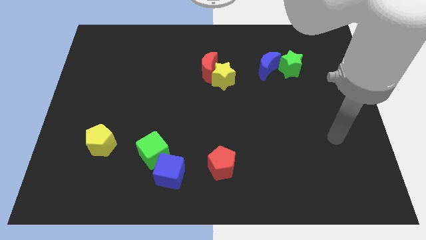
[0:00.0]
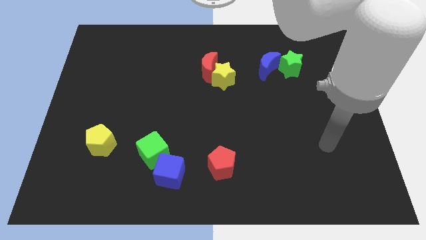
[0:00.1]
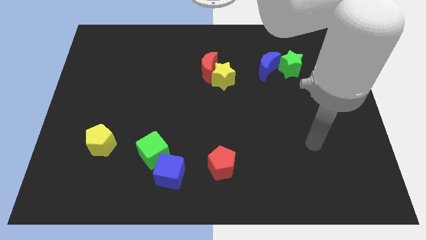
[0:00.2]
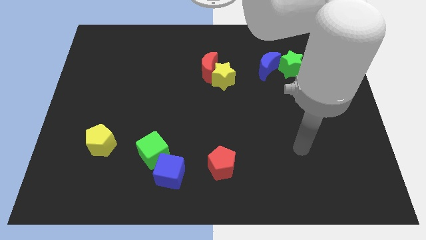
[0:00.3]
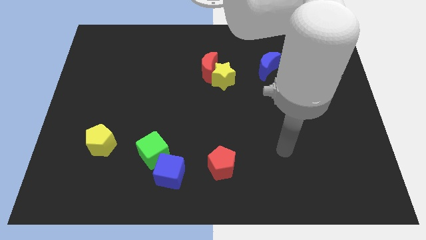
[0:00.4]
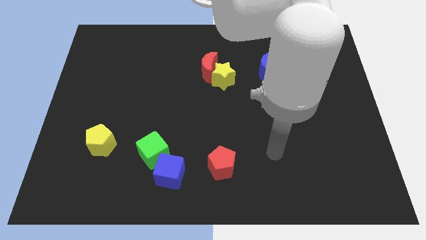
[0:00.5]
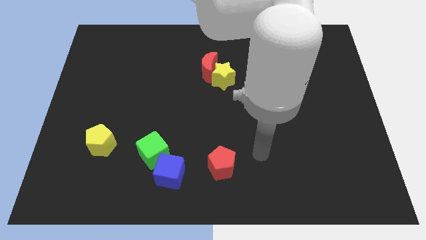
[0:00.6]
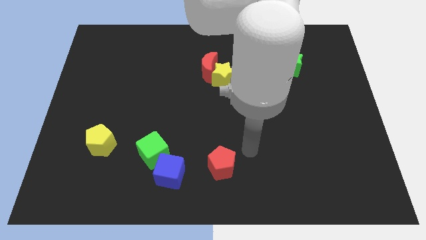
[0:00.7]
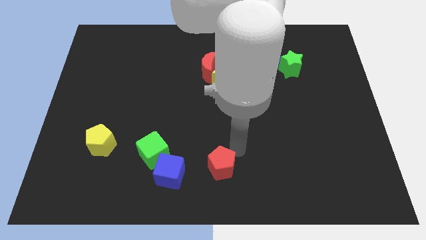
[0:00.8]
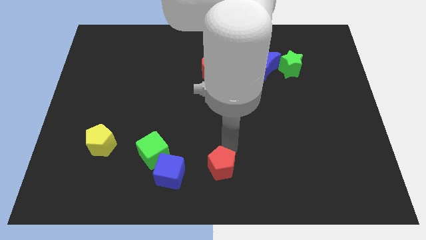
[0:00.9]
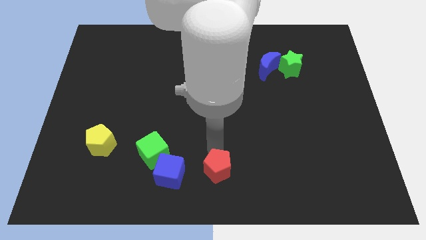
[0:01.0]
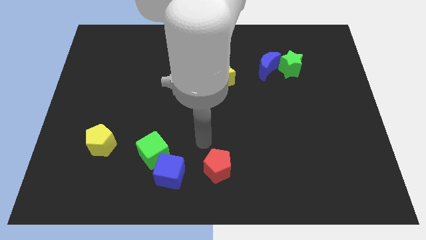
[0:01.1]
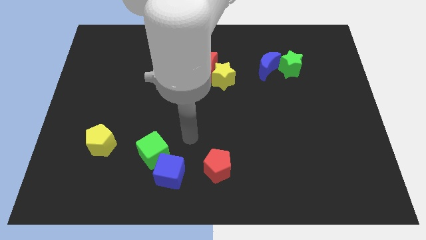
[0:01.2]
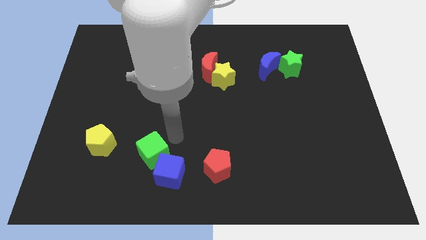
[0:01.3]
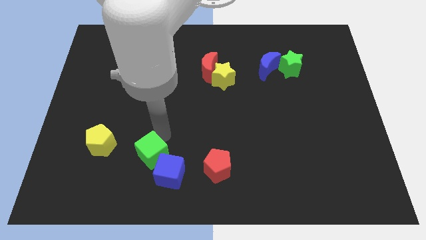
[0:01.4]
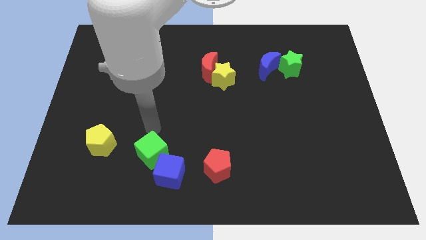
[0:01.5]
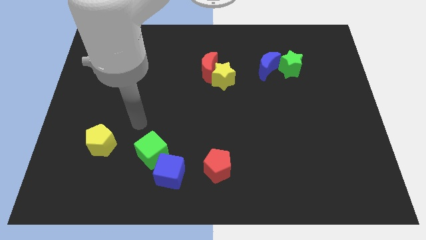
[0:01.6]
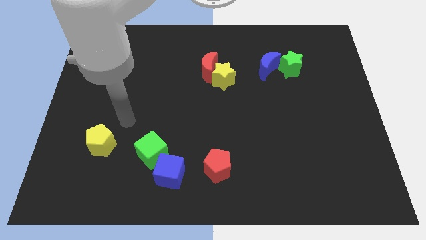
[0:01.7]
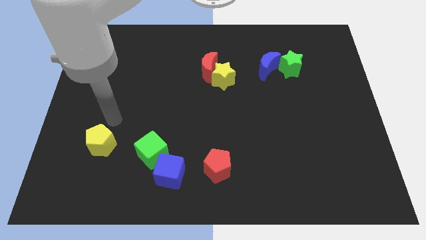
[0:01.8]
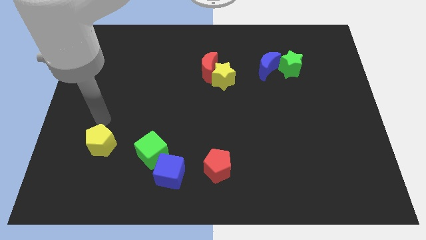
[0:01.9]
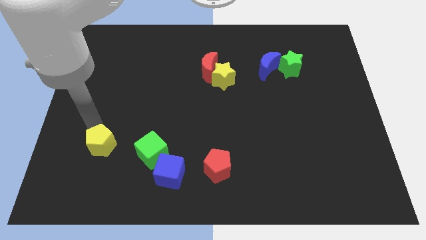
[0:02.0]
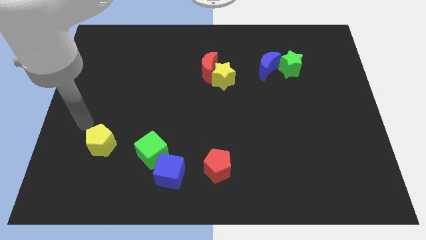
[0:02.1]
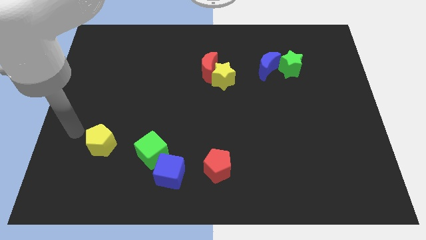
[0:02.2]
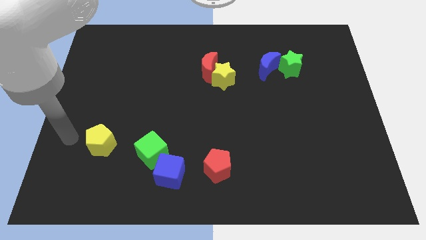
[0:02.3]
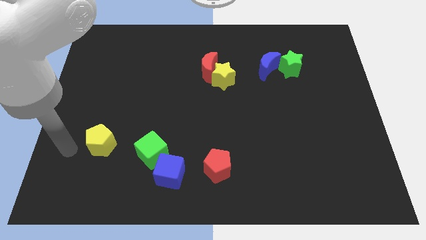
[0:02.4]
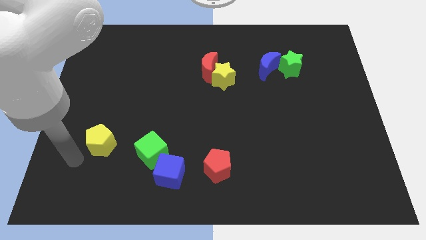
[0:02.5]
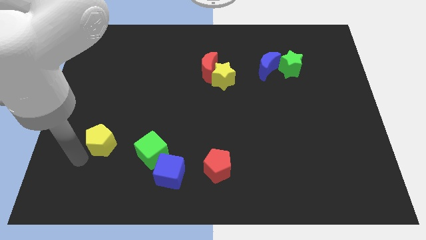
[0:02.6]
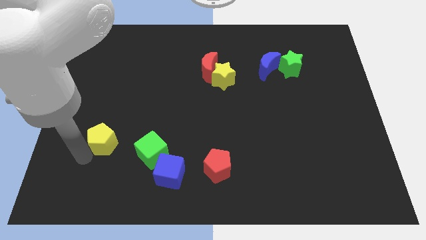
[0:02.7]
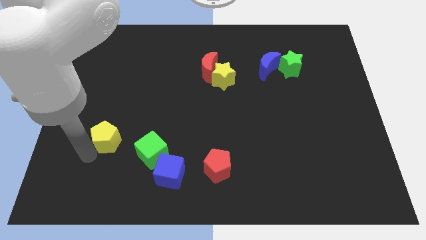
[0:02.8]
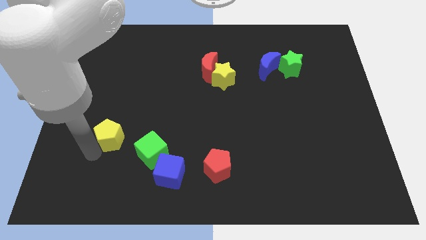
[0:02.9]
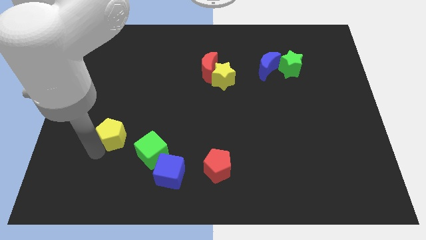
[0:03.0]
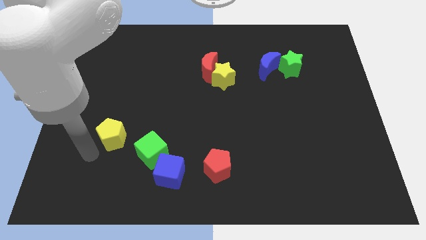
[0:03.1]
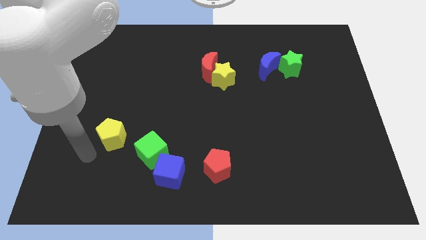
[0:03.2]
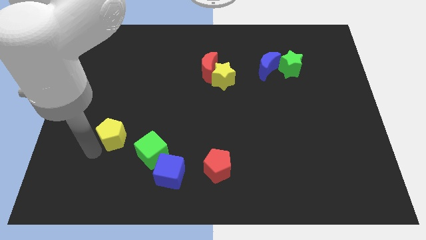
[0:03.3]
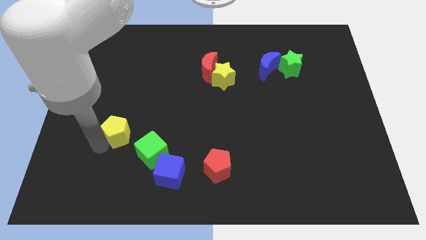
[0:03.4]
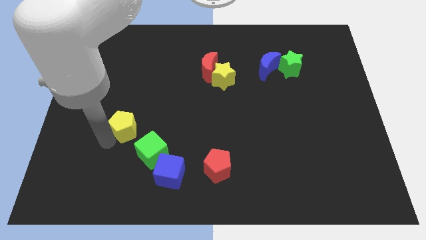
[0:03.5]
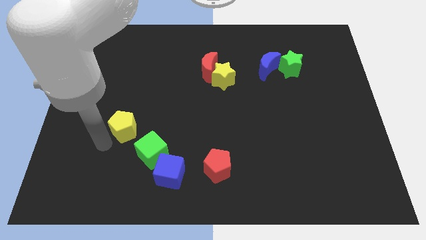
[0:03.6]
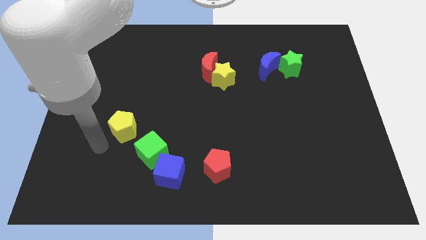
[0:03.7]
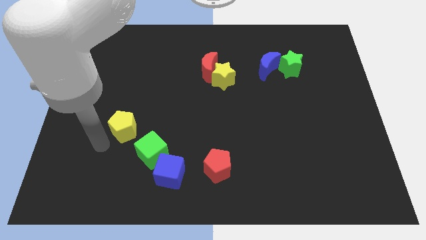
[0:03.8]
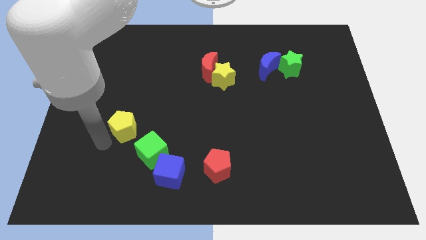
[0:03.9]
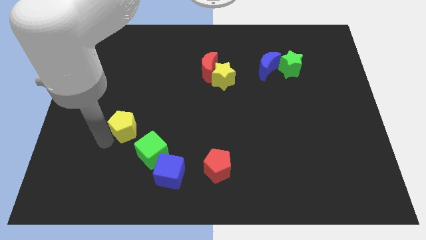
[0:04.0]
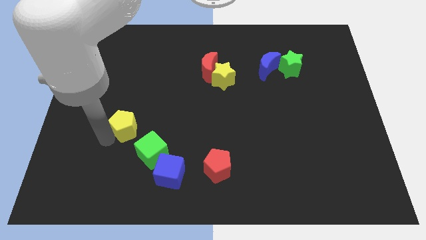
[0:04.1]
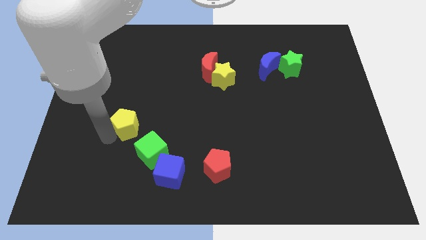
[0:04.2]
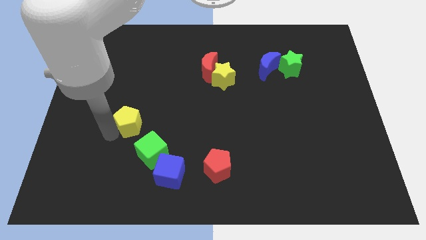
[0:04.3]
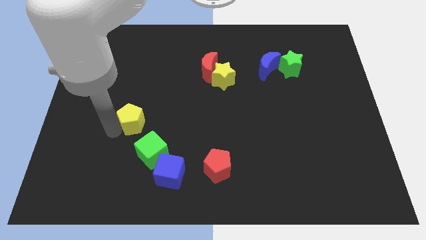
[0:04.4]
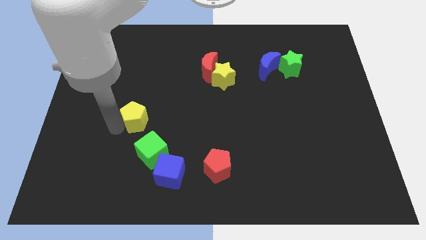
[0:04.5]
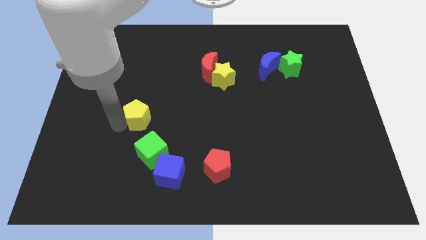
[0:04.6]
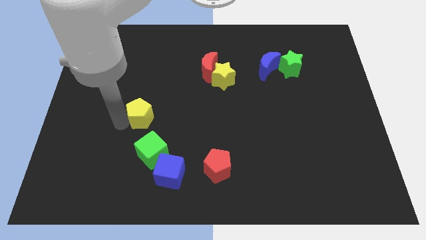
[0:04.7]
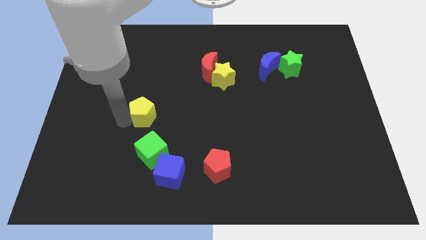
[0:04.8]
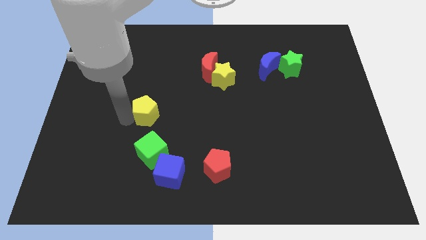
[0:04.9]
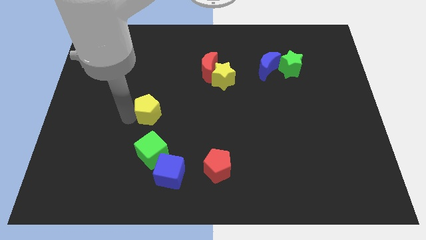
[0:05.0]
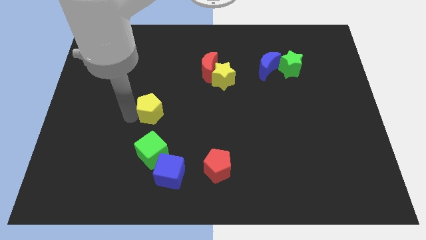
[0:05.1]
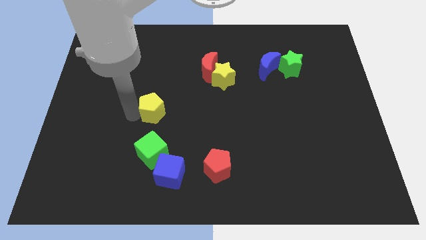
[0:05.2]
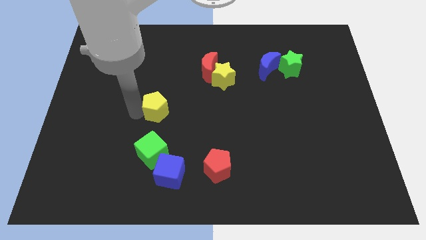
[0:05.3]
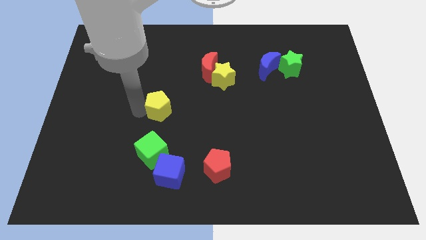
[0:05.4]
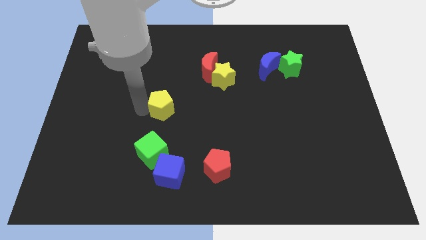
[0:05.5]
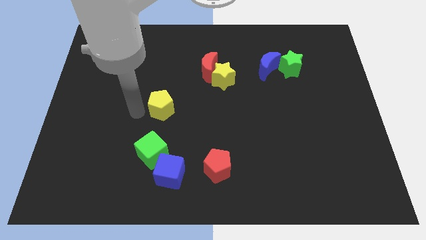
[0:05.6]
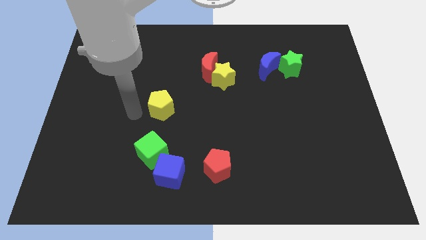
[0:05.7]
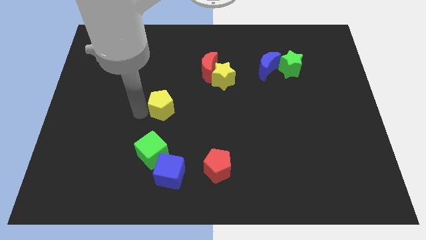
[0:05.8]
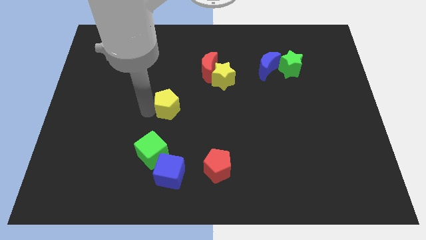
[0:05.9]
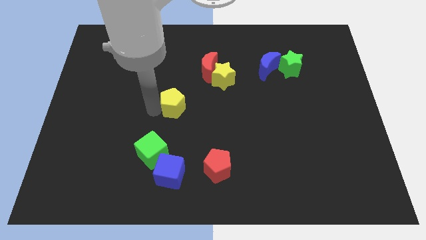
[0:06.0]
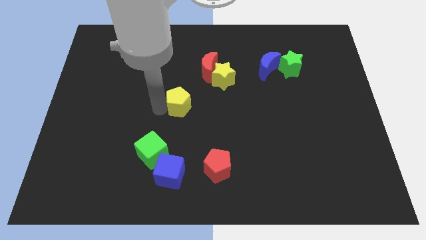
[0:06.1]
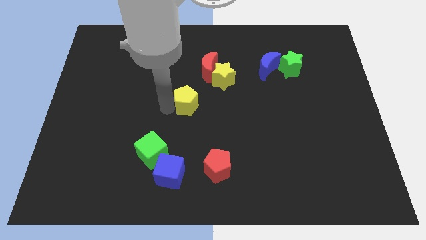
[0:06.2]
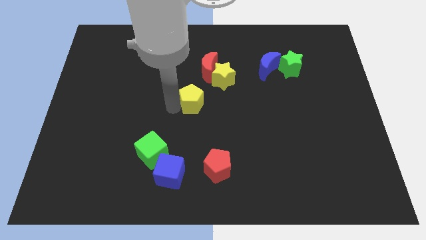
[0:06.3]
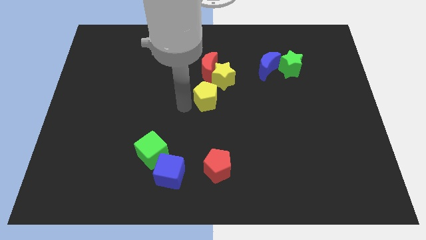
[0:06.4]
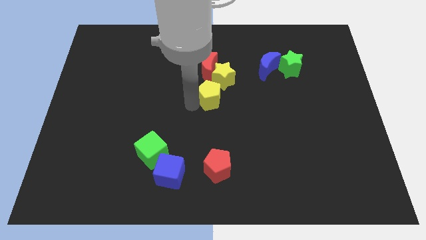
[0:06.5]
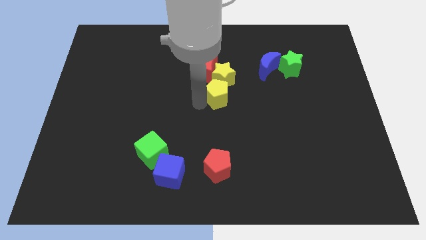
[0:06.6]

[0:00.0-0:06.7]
push the yellow pentagon towards the yellow star
